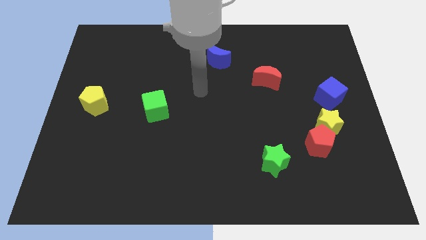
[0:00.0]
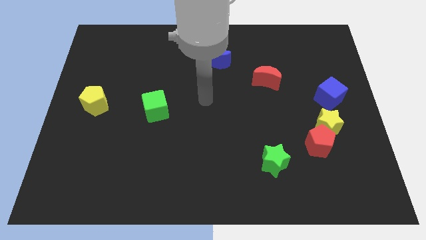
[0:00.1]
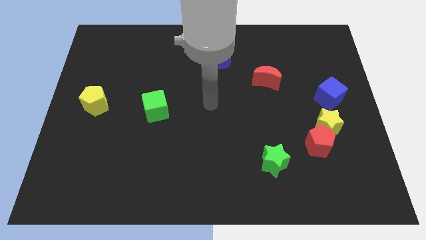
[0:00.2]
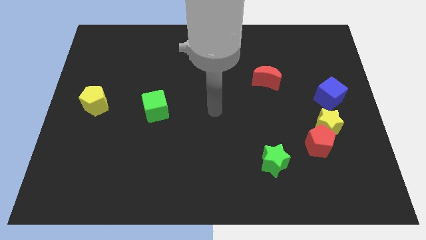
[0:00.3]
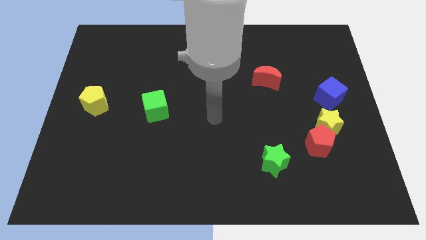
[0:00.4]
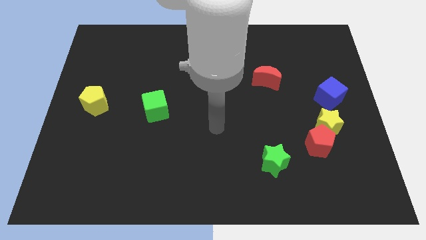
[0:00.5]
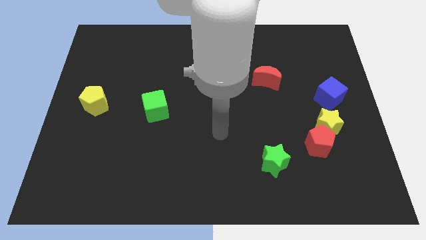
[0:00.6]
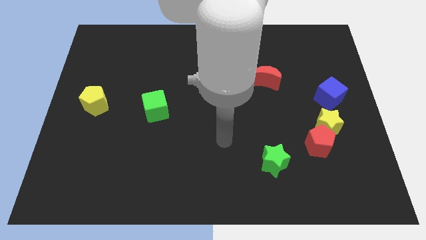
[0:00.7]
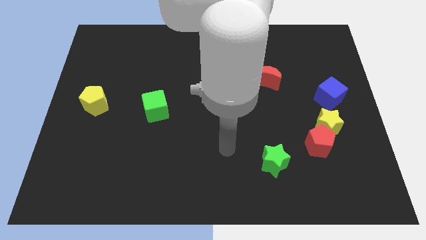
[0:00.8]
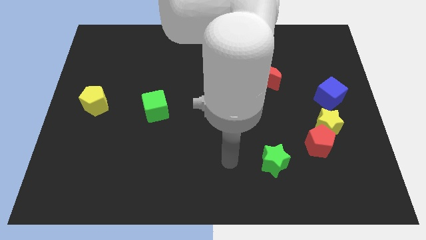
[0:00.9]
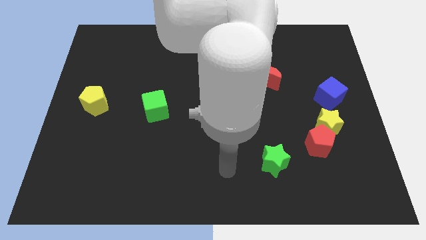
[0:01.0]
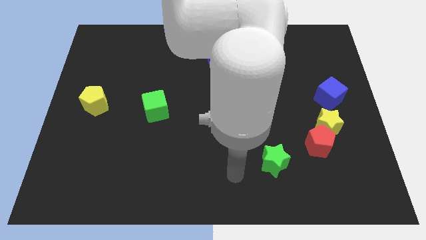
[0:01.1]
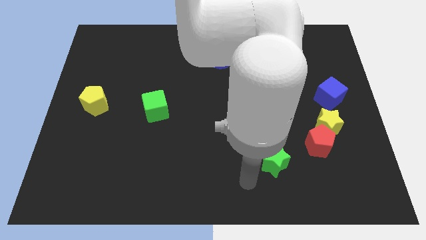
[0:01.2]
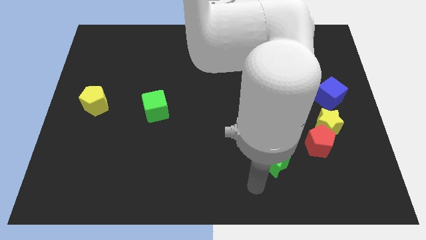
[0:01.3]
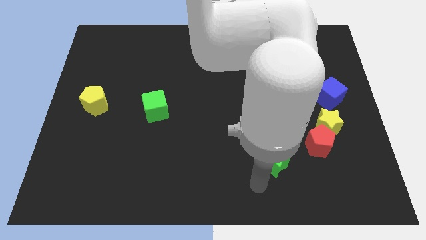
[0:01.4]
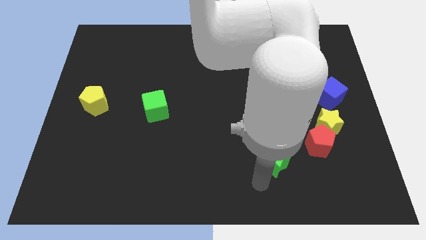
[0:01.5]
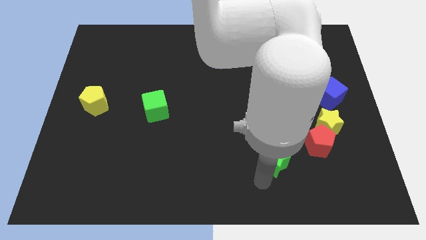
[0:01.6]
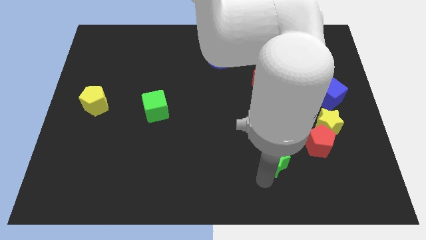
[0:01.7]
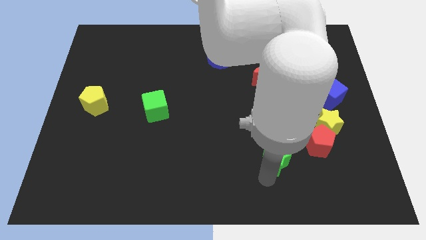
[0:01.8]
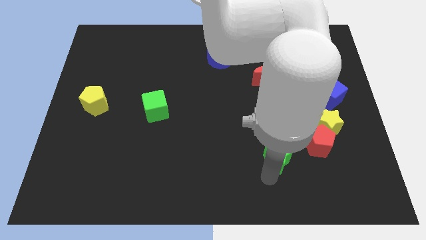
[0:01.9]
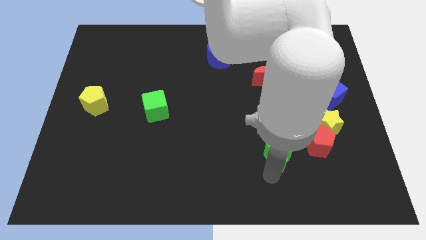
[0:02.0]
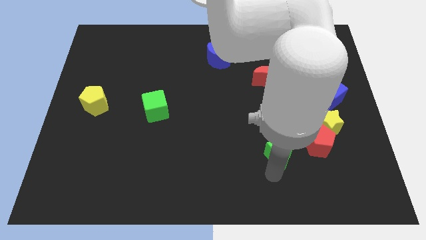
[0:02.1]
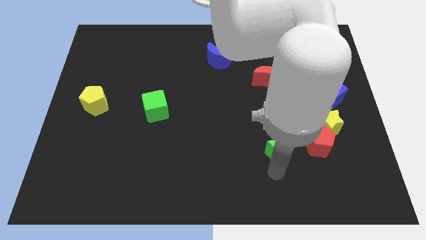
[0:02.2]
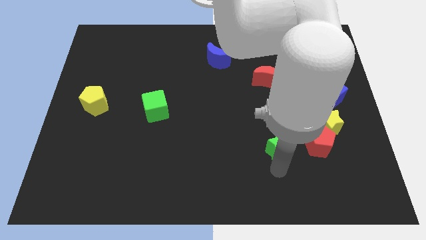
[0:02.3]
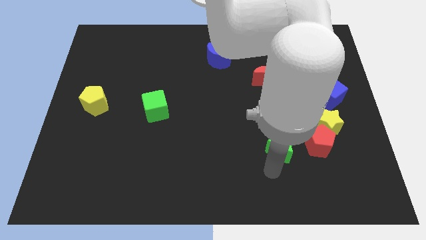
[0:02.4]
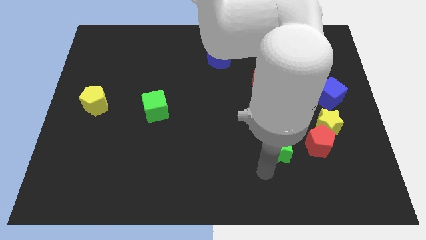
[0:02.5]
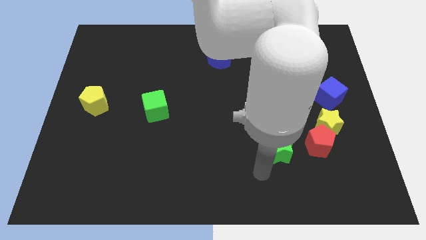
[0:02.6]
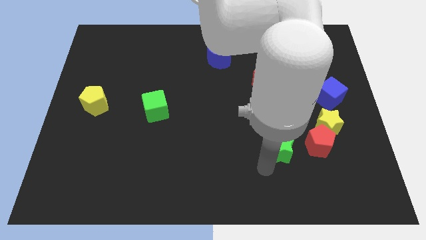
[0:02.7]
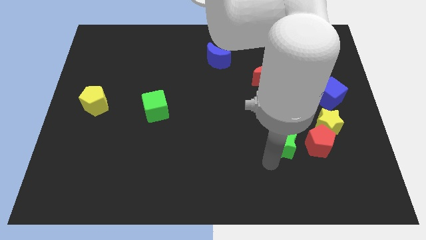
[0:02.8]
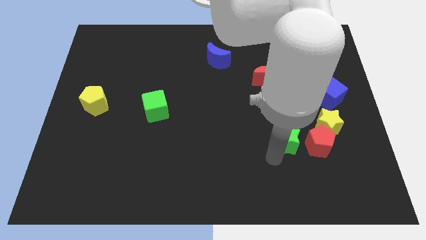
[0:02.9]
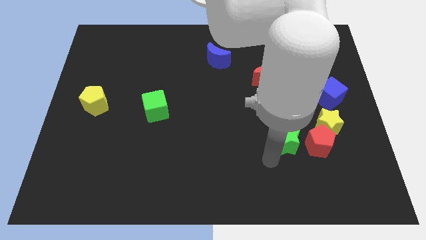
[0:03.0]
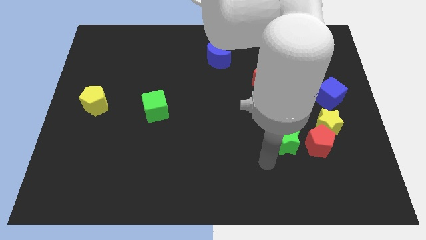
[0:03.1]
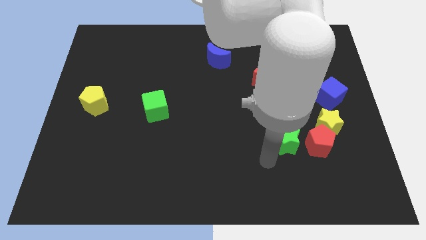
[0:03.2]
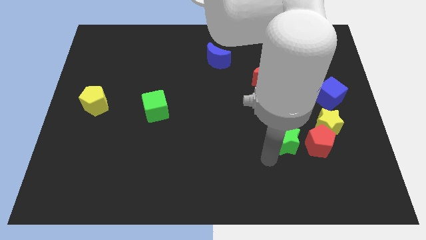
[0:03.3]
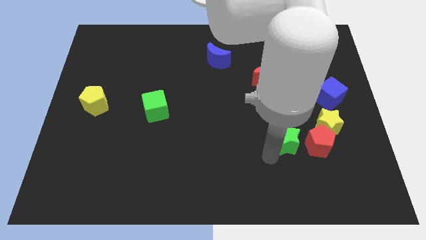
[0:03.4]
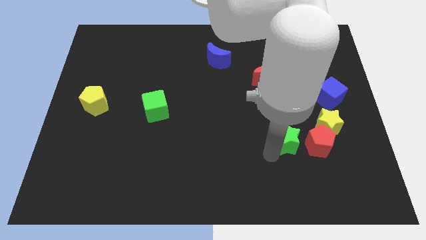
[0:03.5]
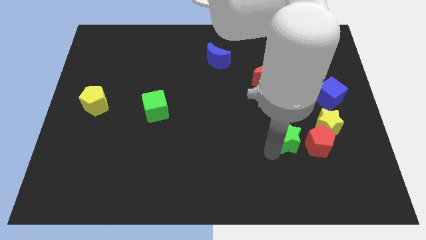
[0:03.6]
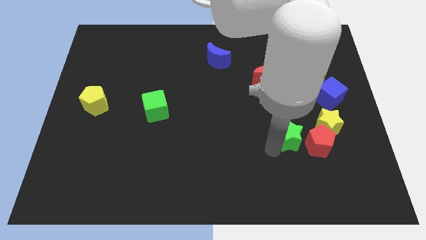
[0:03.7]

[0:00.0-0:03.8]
slightly push the green star upwards and right diagonally

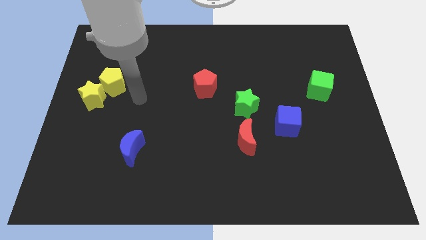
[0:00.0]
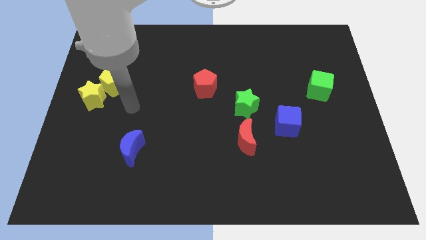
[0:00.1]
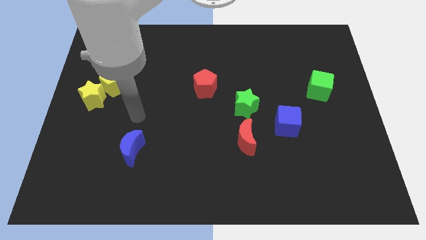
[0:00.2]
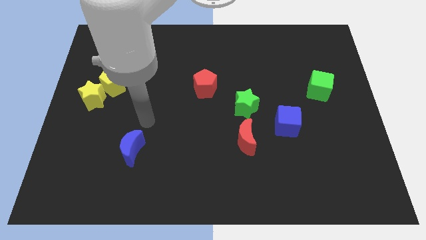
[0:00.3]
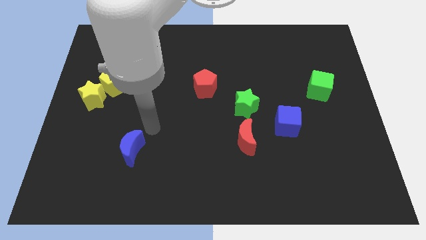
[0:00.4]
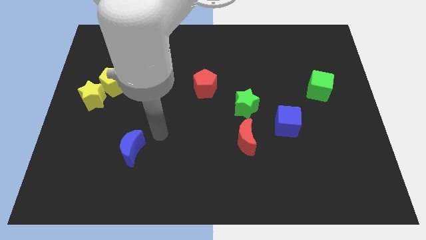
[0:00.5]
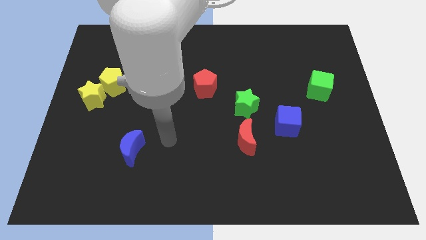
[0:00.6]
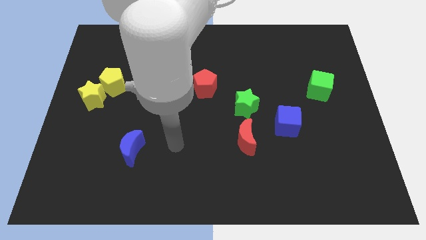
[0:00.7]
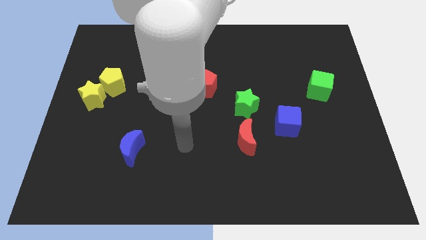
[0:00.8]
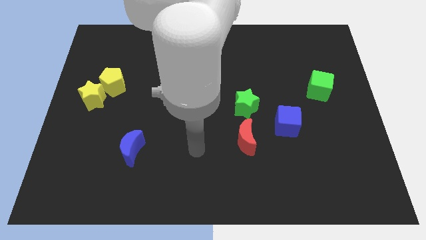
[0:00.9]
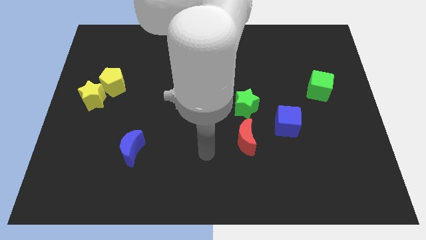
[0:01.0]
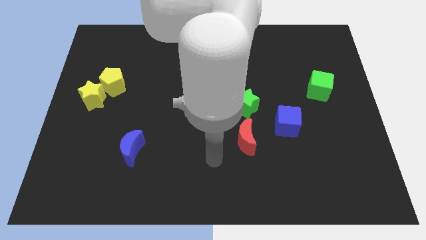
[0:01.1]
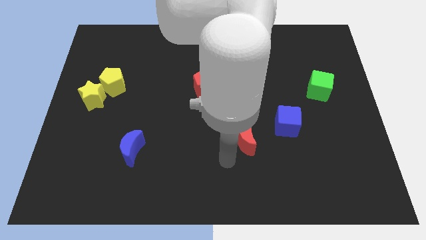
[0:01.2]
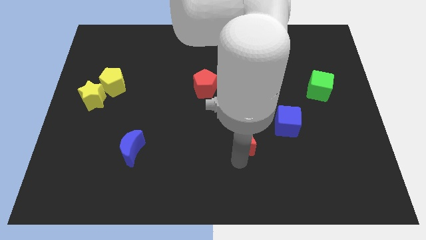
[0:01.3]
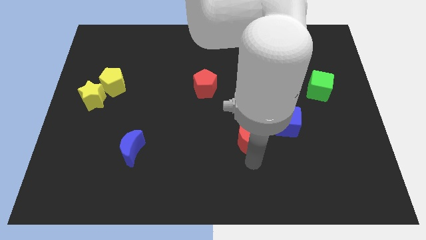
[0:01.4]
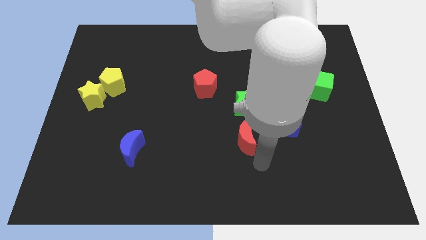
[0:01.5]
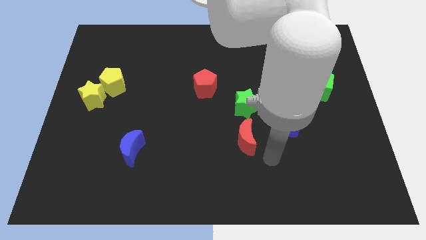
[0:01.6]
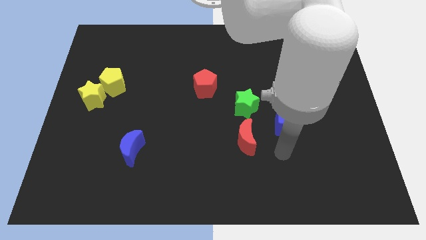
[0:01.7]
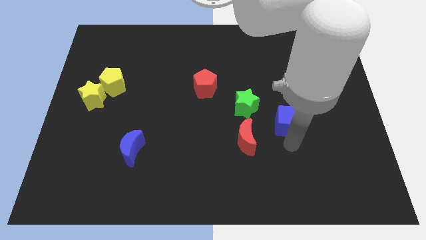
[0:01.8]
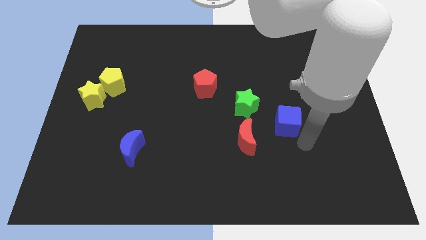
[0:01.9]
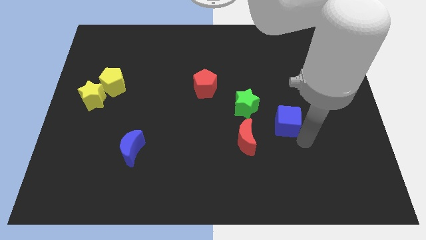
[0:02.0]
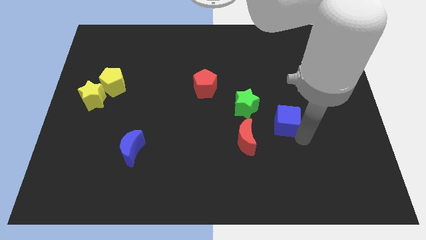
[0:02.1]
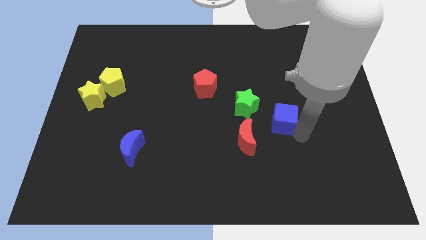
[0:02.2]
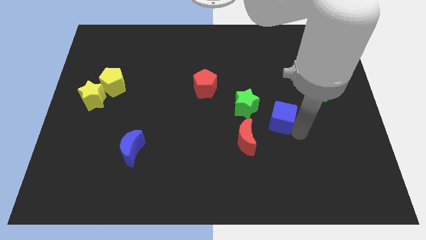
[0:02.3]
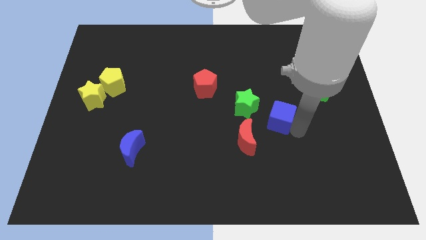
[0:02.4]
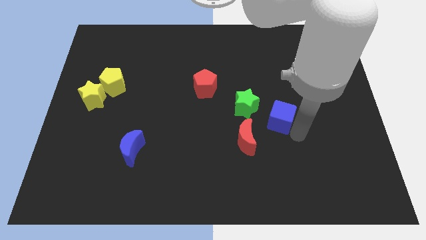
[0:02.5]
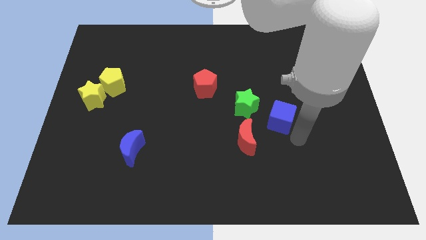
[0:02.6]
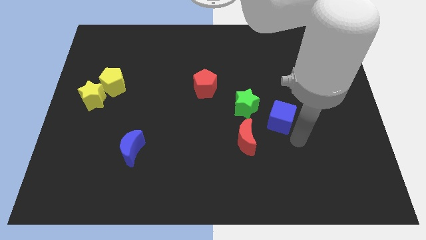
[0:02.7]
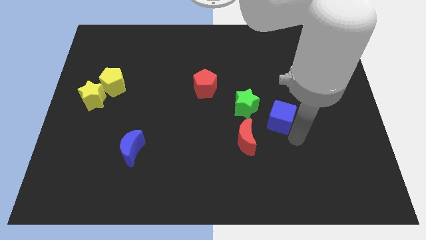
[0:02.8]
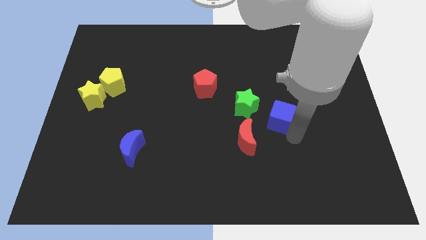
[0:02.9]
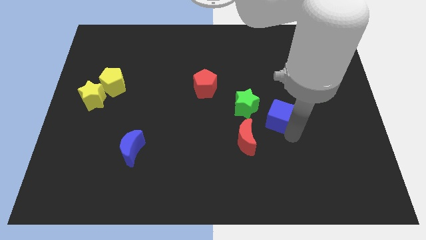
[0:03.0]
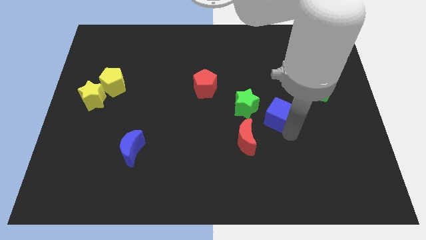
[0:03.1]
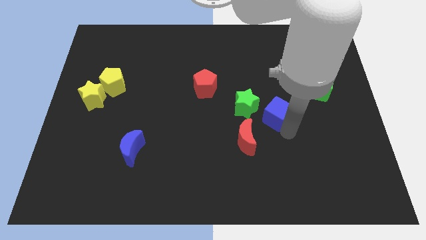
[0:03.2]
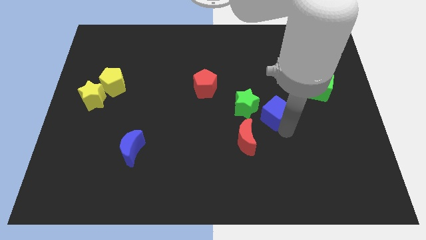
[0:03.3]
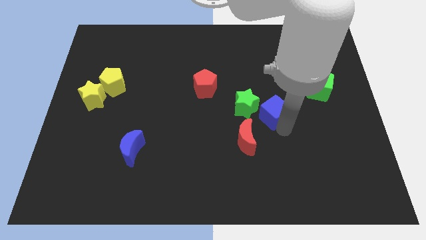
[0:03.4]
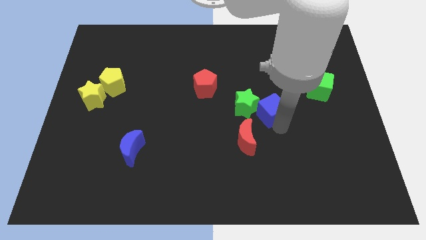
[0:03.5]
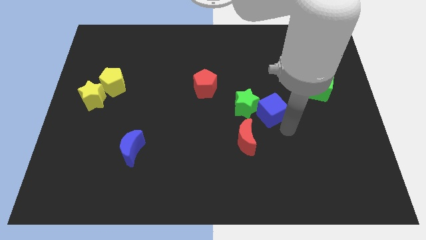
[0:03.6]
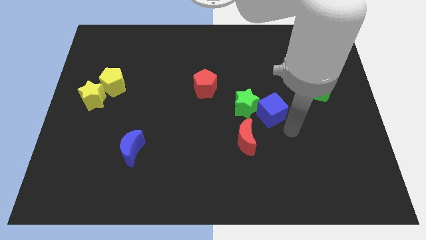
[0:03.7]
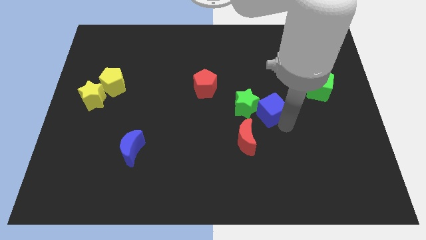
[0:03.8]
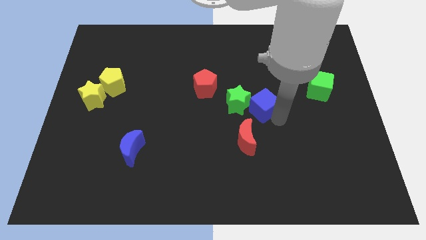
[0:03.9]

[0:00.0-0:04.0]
slightly move the blue cube diagonally up and left
